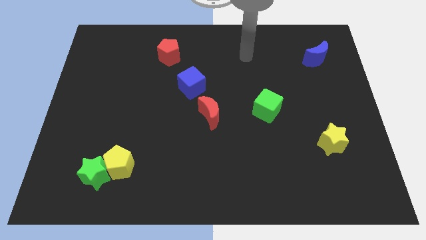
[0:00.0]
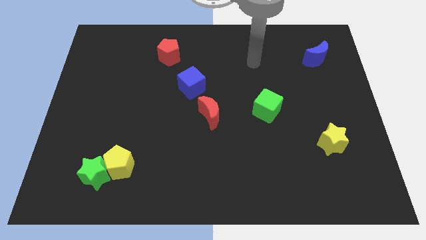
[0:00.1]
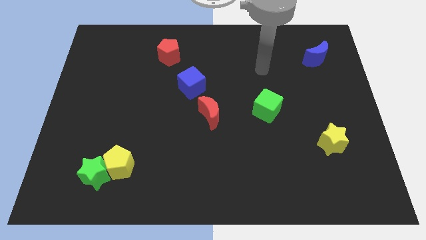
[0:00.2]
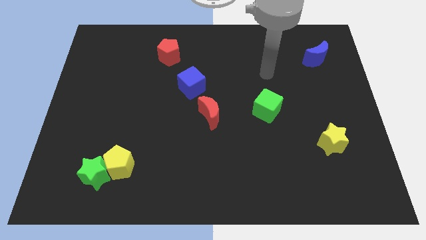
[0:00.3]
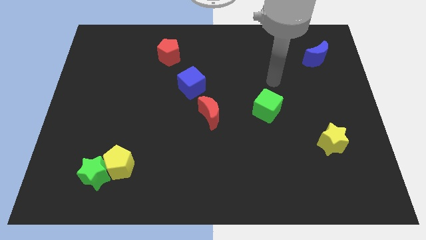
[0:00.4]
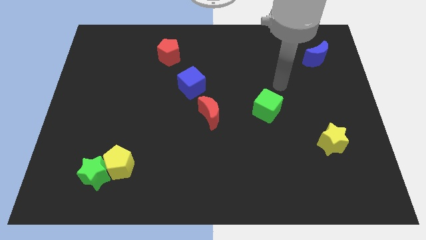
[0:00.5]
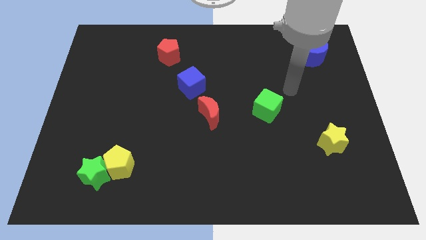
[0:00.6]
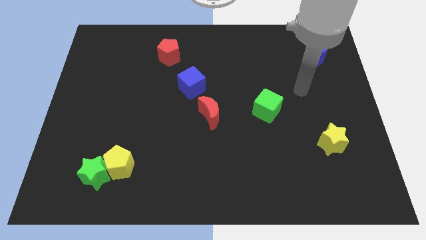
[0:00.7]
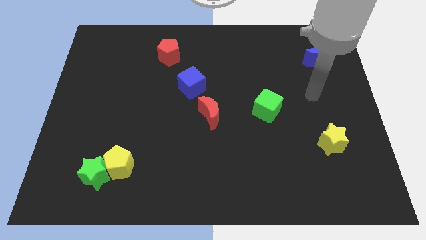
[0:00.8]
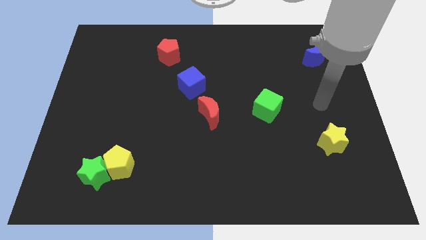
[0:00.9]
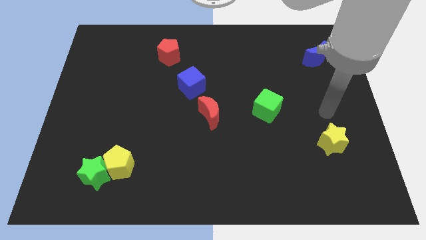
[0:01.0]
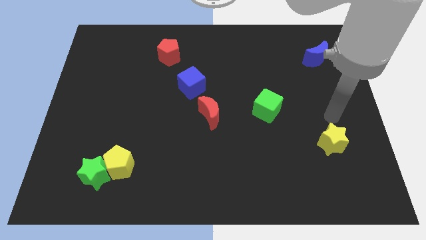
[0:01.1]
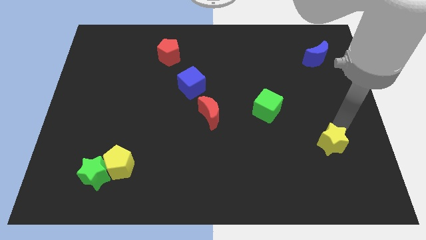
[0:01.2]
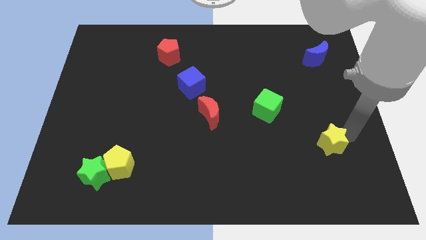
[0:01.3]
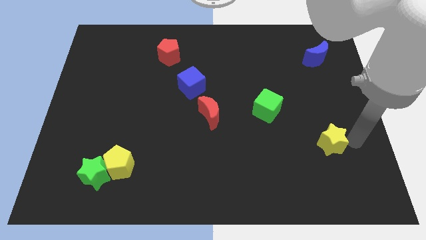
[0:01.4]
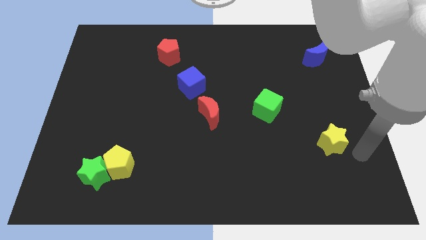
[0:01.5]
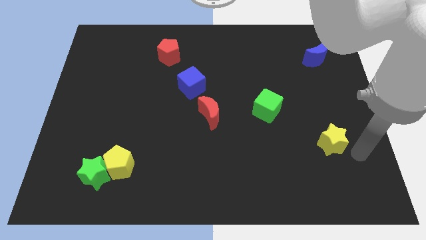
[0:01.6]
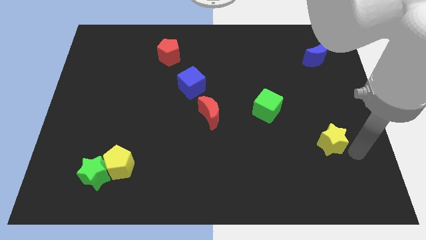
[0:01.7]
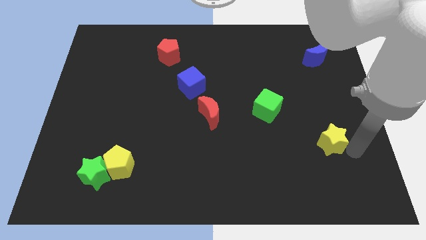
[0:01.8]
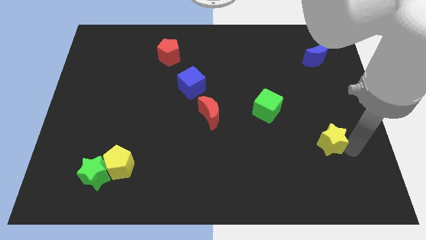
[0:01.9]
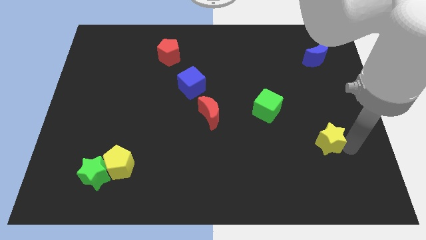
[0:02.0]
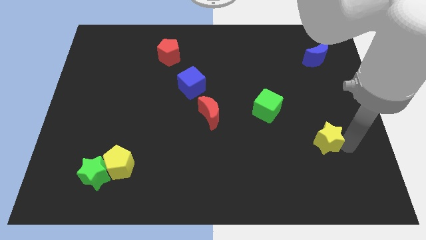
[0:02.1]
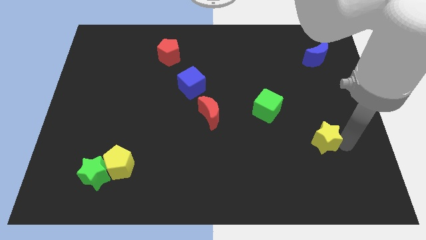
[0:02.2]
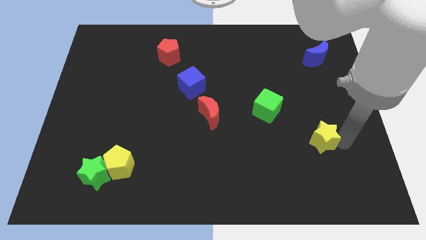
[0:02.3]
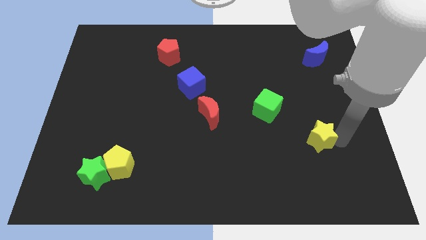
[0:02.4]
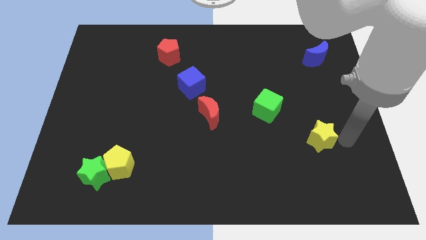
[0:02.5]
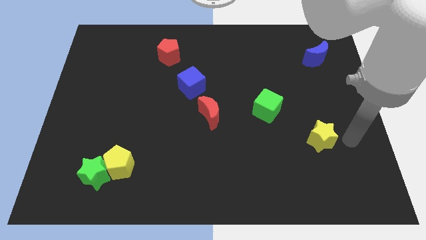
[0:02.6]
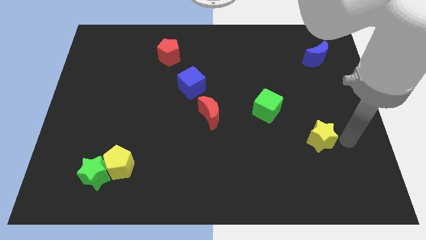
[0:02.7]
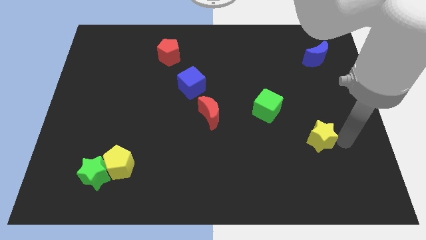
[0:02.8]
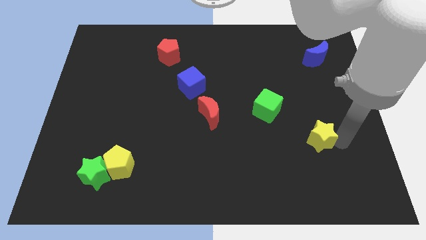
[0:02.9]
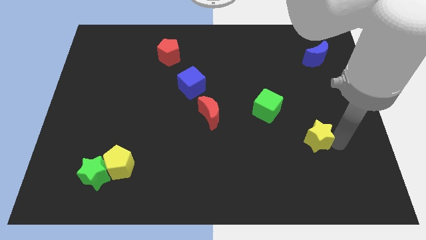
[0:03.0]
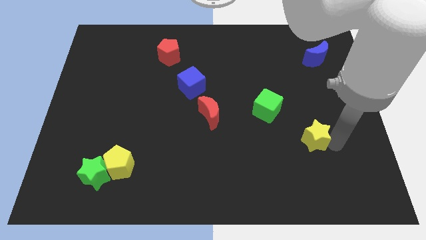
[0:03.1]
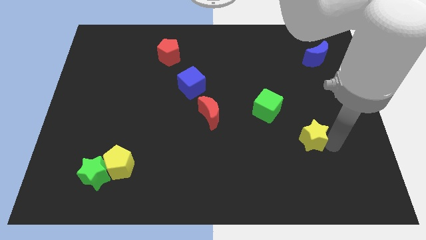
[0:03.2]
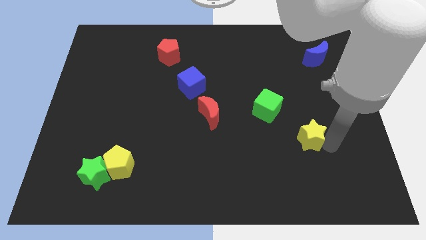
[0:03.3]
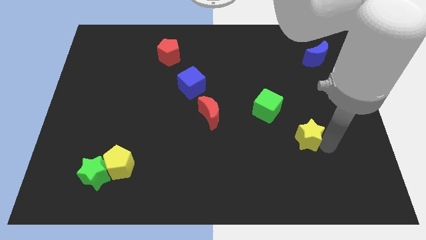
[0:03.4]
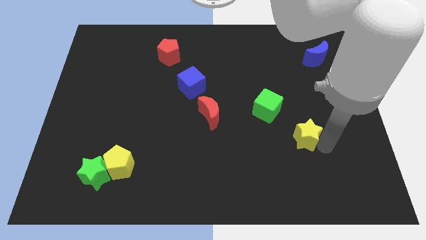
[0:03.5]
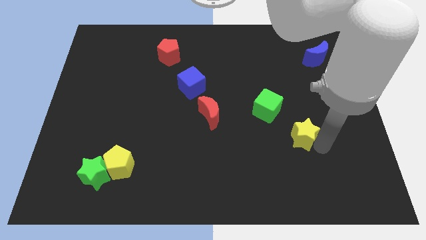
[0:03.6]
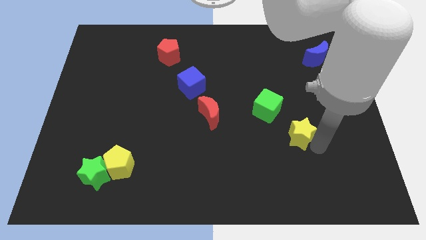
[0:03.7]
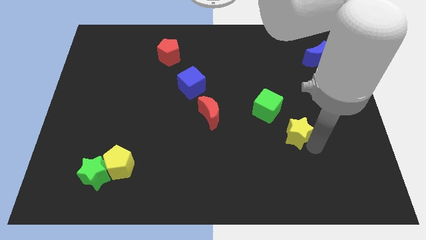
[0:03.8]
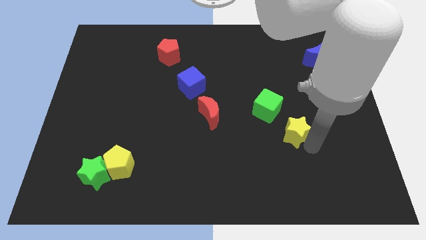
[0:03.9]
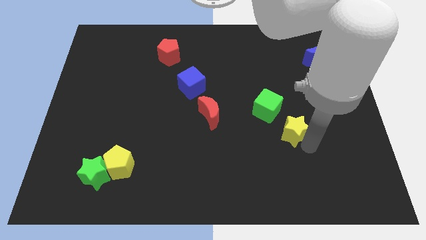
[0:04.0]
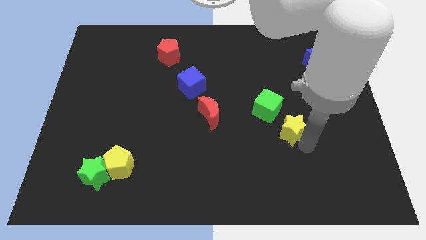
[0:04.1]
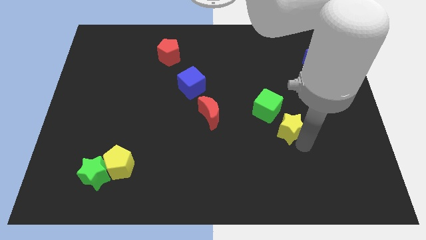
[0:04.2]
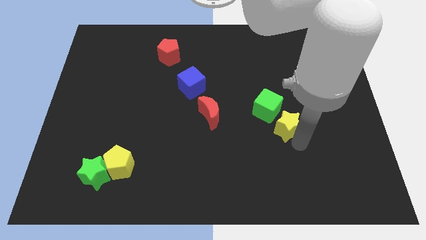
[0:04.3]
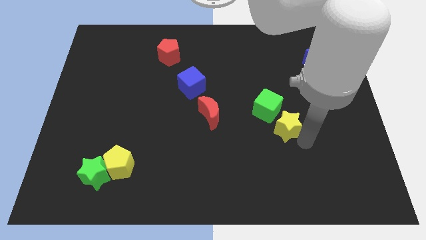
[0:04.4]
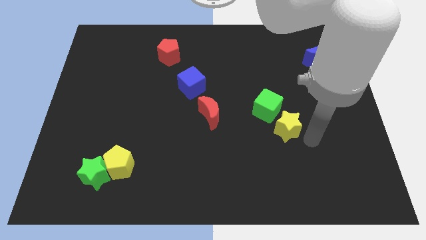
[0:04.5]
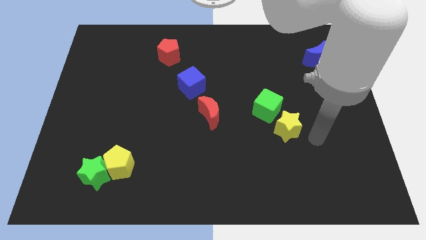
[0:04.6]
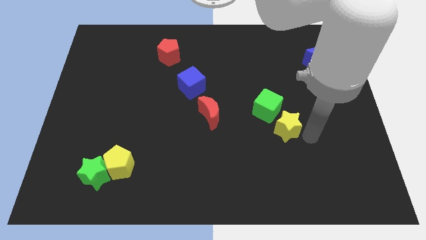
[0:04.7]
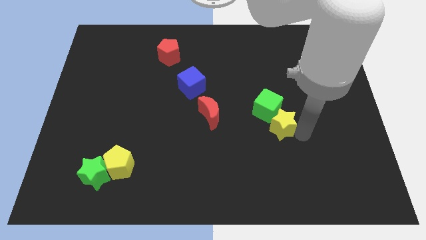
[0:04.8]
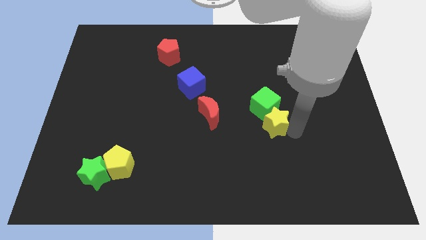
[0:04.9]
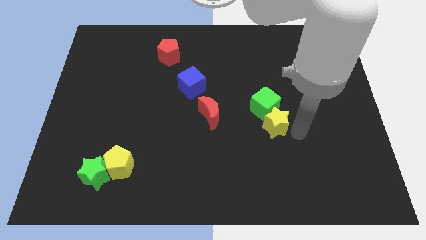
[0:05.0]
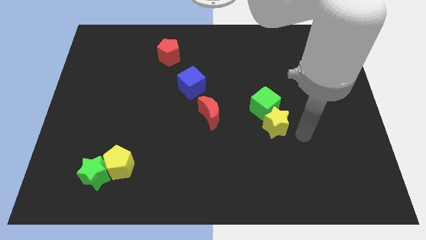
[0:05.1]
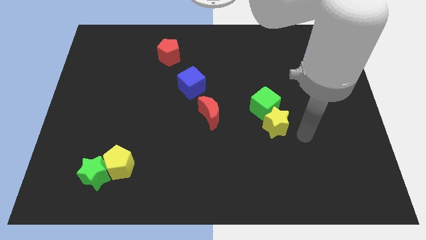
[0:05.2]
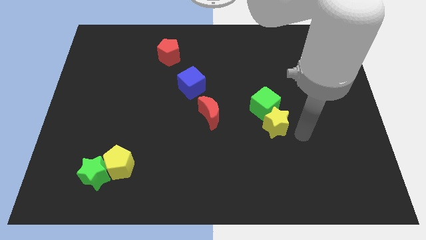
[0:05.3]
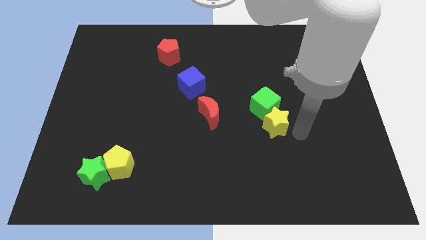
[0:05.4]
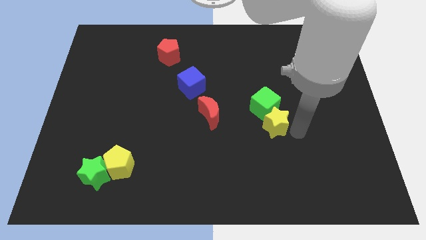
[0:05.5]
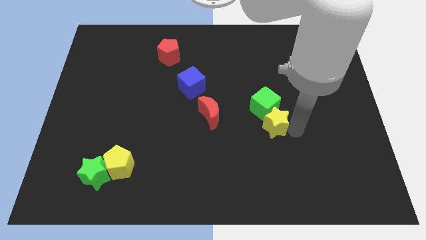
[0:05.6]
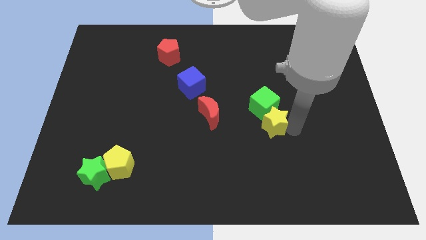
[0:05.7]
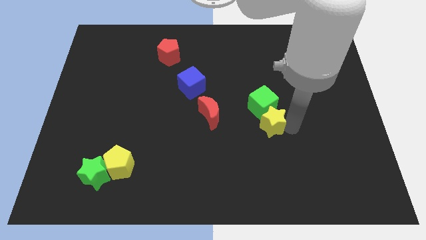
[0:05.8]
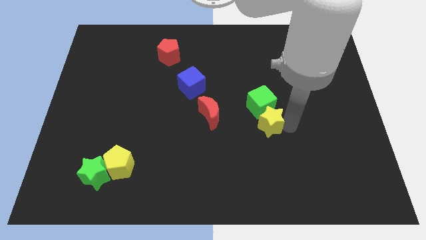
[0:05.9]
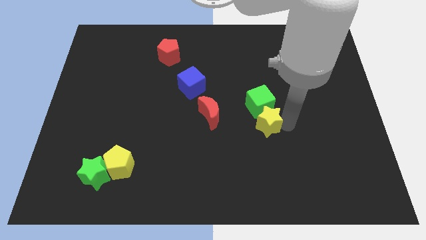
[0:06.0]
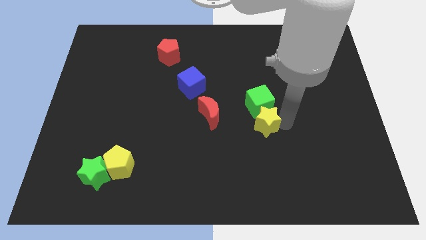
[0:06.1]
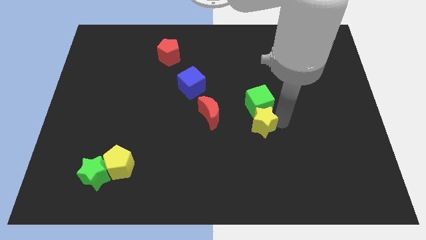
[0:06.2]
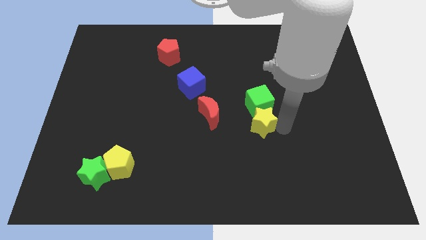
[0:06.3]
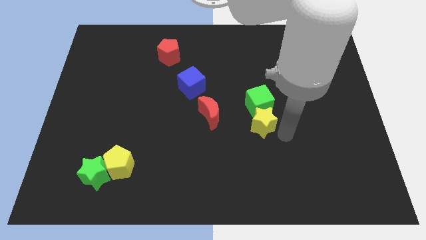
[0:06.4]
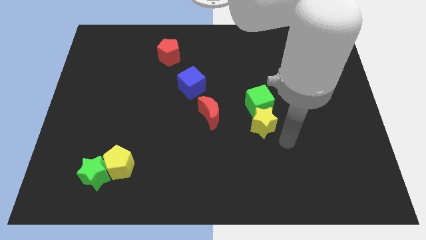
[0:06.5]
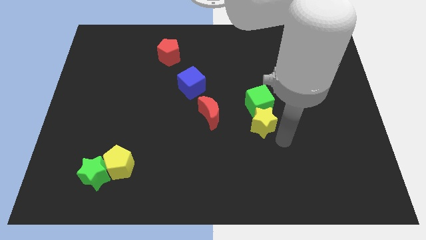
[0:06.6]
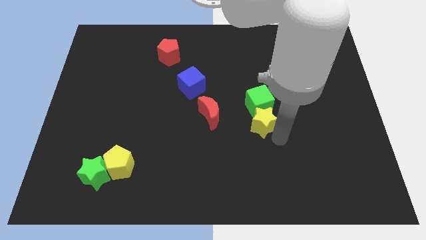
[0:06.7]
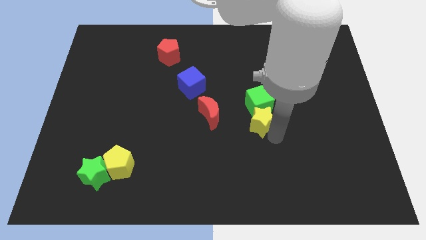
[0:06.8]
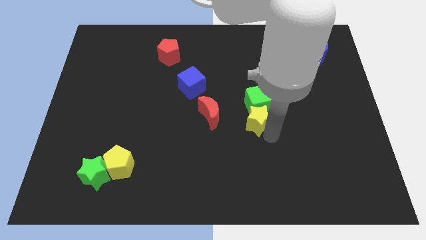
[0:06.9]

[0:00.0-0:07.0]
move the yellow star to the middle
